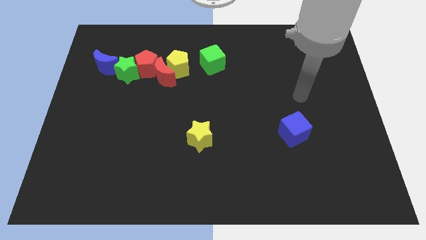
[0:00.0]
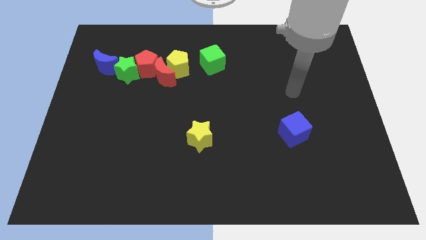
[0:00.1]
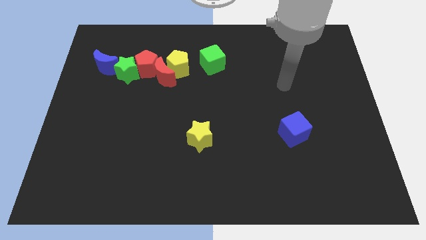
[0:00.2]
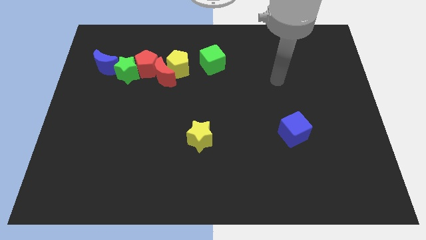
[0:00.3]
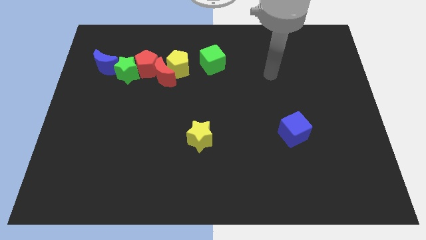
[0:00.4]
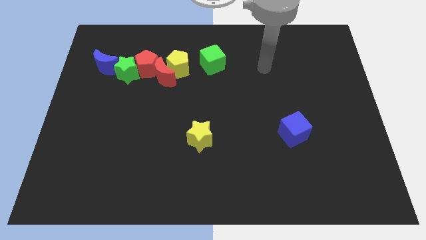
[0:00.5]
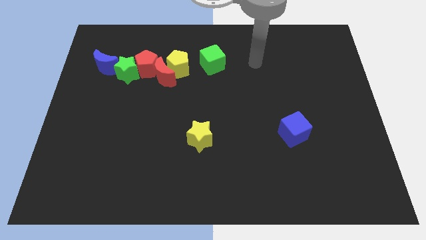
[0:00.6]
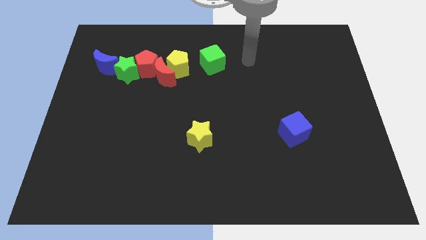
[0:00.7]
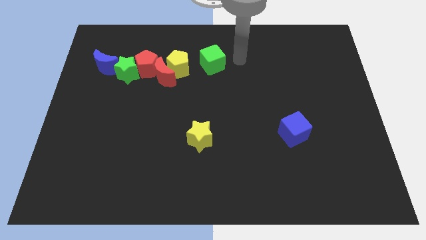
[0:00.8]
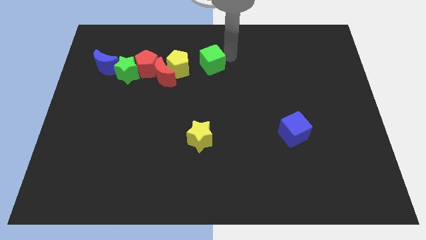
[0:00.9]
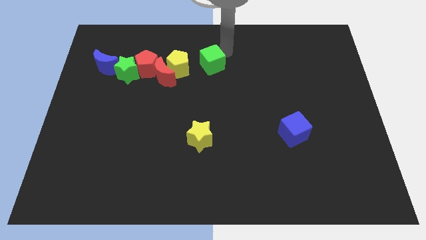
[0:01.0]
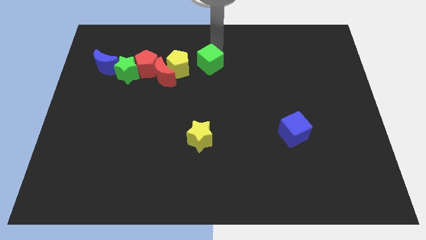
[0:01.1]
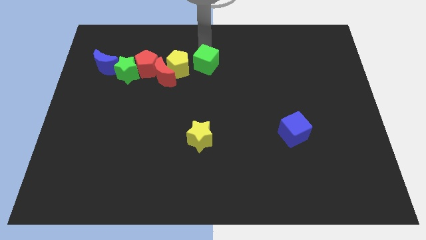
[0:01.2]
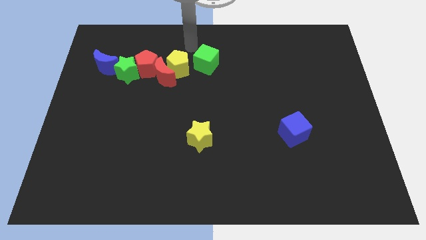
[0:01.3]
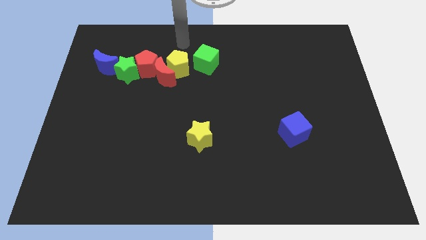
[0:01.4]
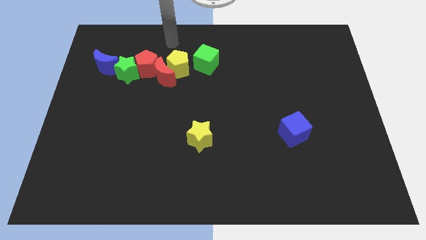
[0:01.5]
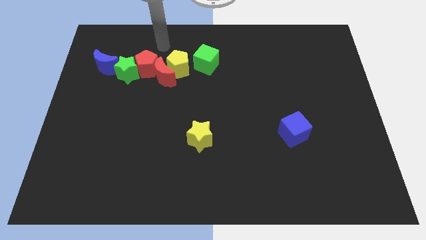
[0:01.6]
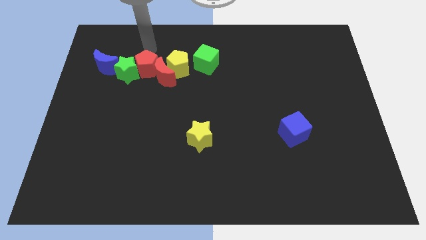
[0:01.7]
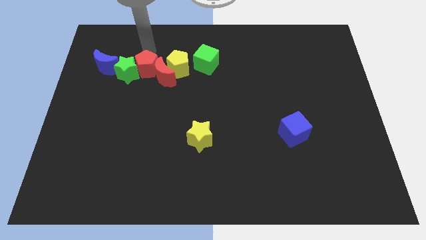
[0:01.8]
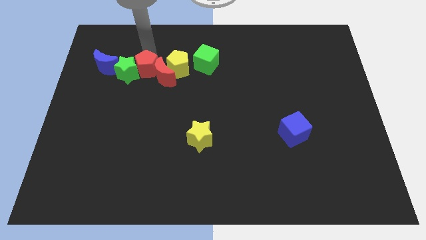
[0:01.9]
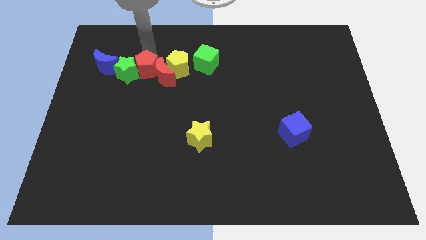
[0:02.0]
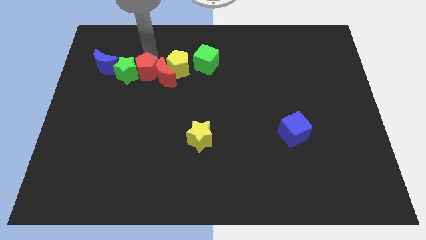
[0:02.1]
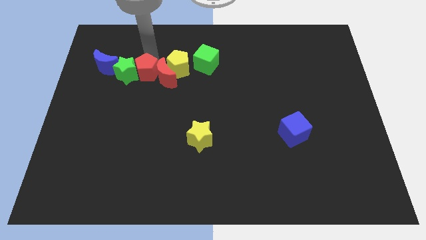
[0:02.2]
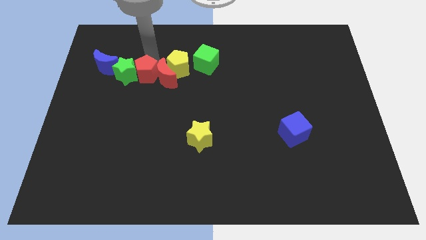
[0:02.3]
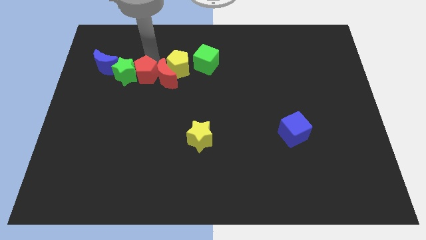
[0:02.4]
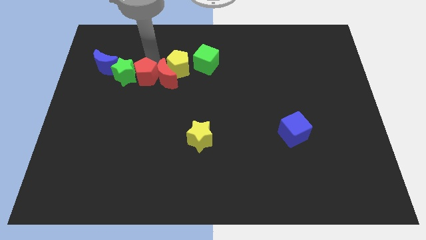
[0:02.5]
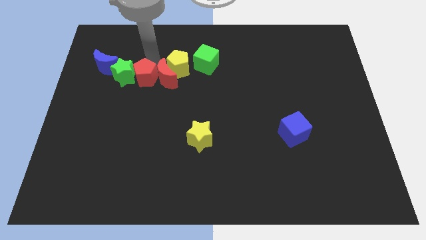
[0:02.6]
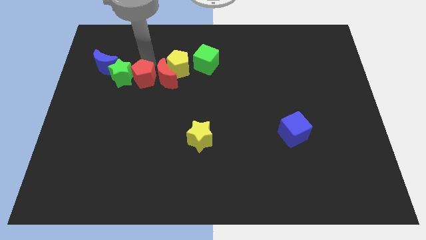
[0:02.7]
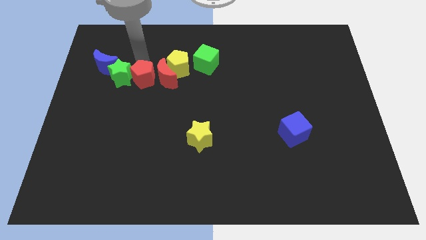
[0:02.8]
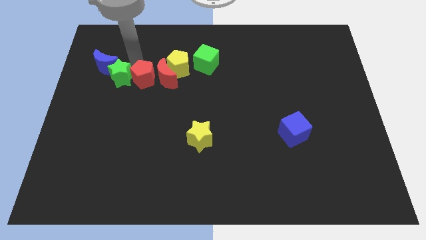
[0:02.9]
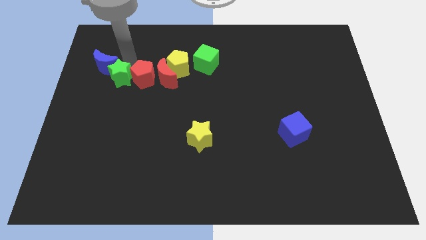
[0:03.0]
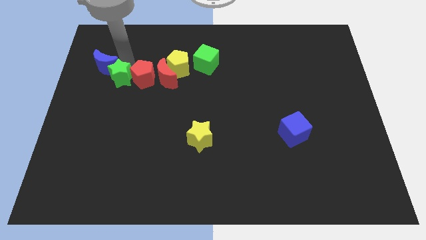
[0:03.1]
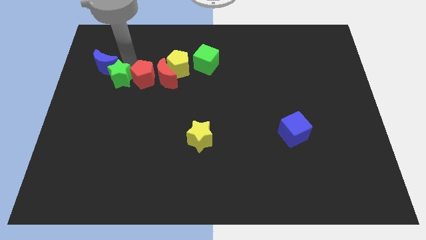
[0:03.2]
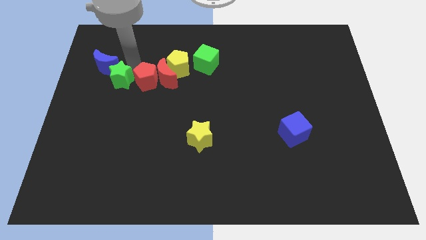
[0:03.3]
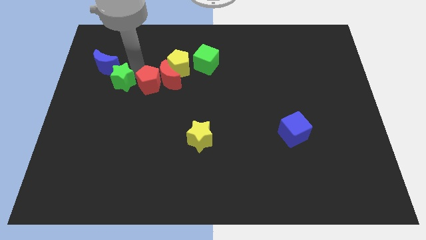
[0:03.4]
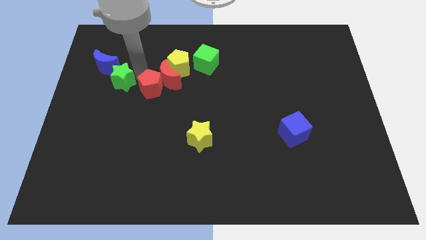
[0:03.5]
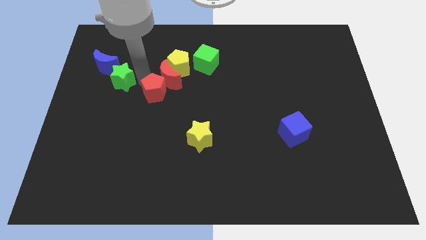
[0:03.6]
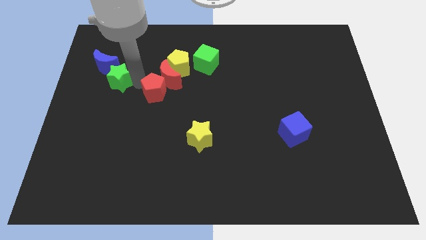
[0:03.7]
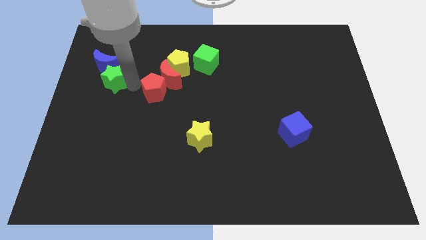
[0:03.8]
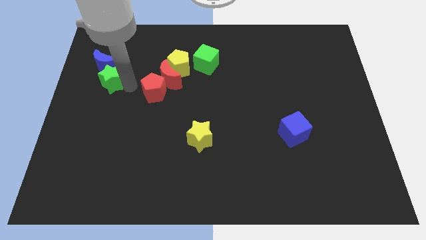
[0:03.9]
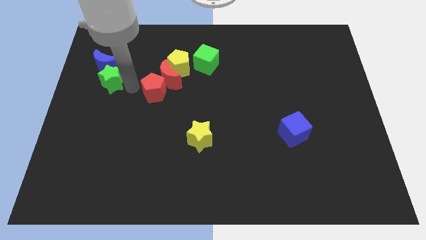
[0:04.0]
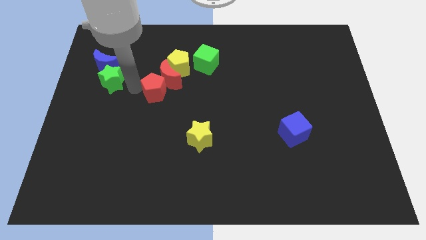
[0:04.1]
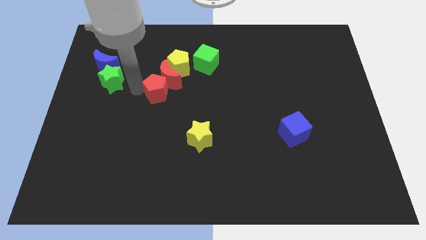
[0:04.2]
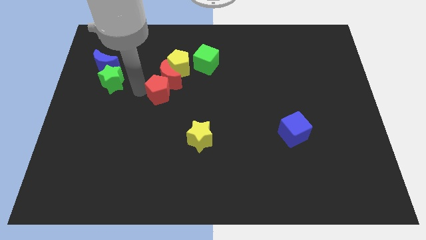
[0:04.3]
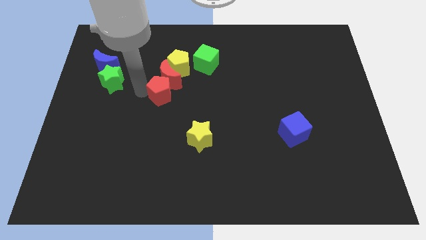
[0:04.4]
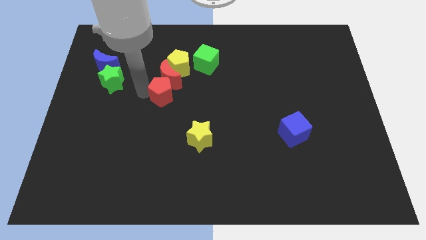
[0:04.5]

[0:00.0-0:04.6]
push the red pentagon to the center

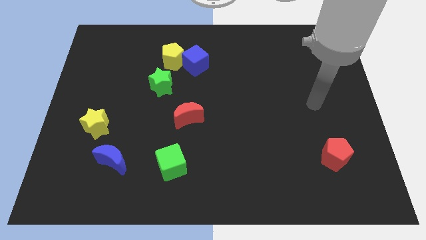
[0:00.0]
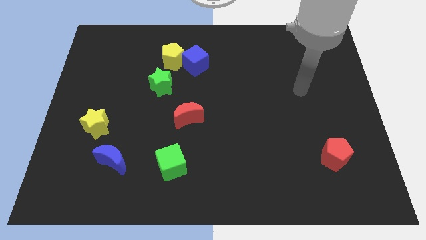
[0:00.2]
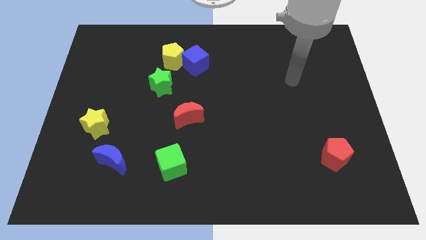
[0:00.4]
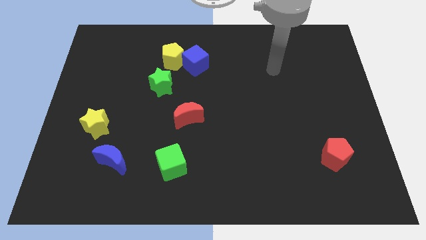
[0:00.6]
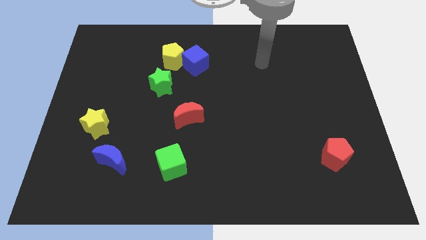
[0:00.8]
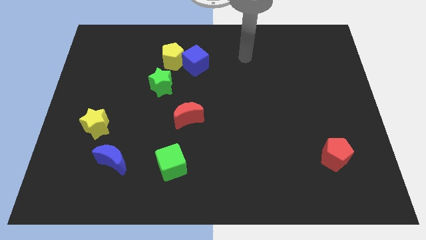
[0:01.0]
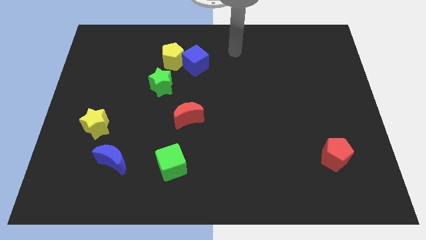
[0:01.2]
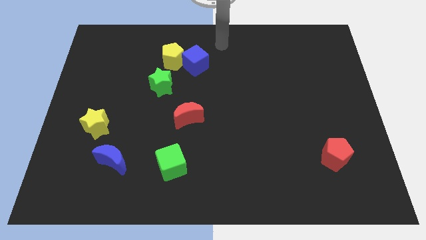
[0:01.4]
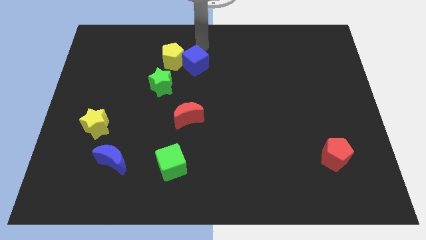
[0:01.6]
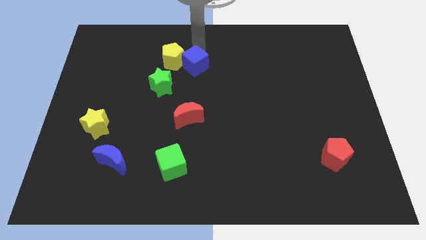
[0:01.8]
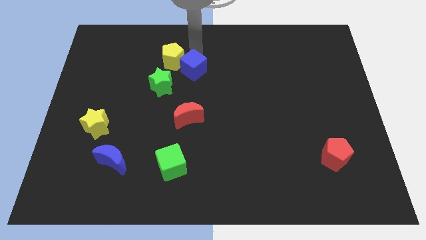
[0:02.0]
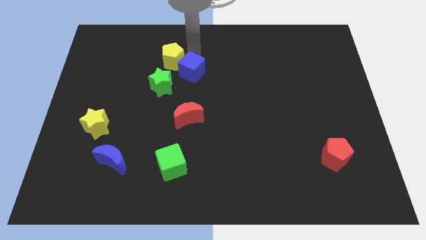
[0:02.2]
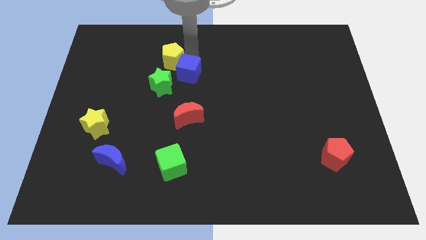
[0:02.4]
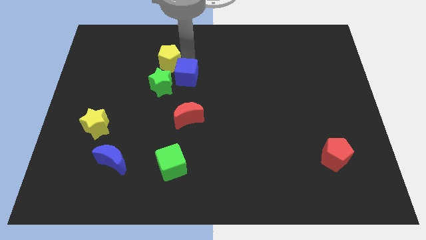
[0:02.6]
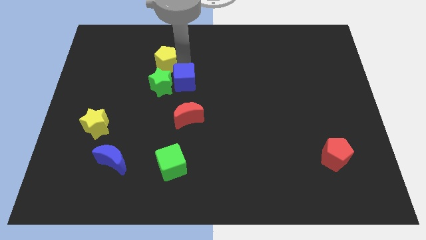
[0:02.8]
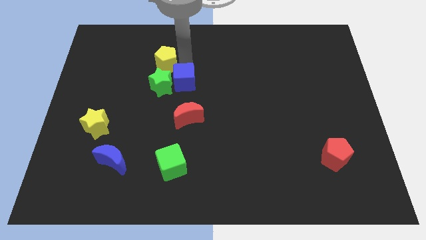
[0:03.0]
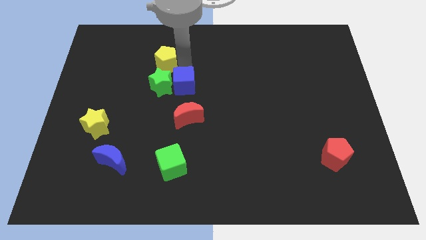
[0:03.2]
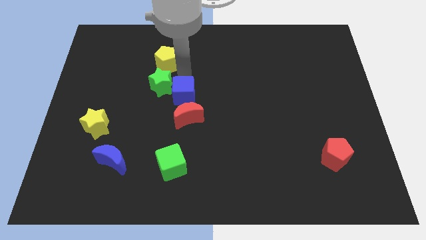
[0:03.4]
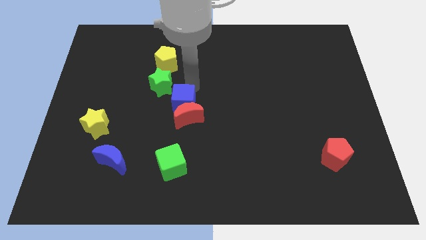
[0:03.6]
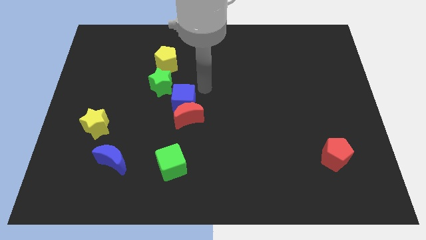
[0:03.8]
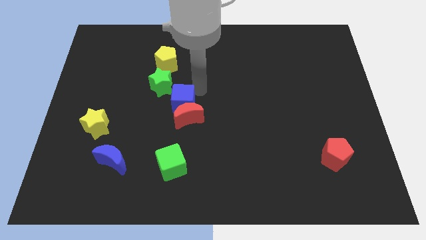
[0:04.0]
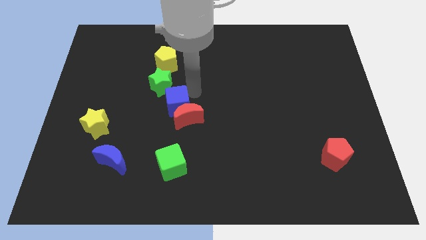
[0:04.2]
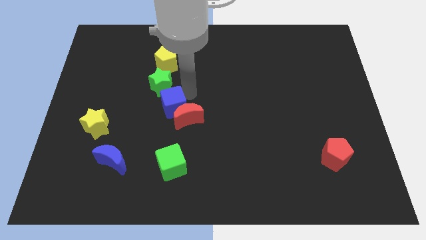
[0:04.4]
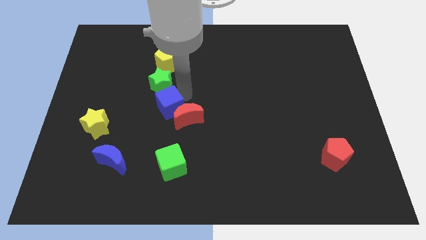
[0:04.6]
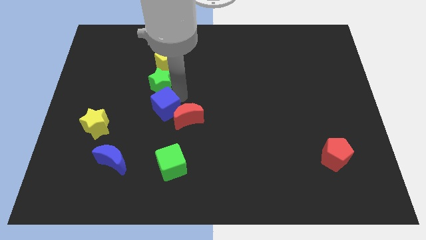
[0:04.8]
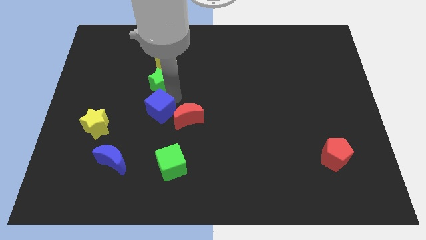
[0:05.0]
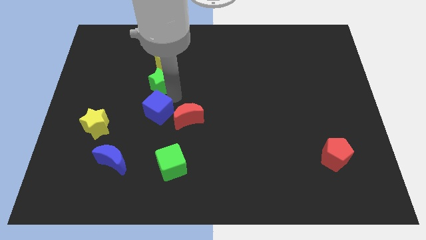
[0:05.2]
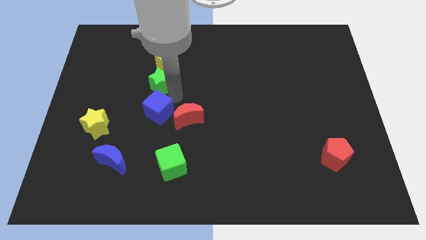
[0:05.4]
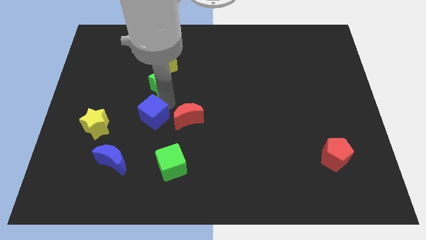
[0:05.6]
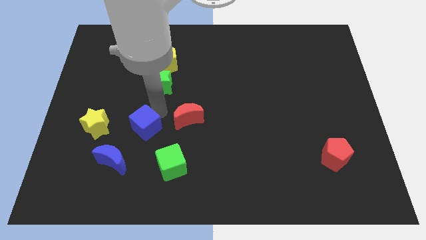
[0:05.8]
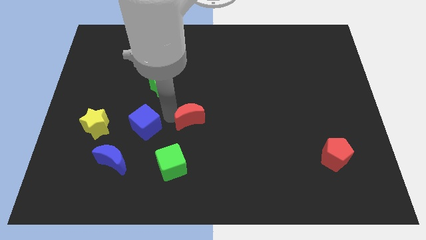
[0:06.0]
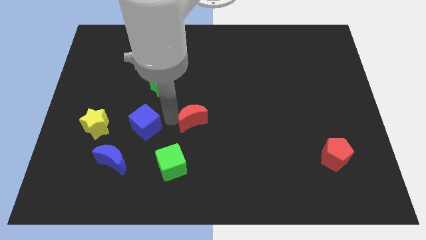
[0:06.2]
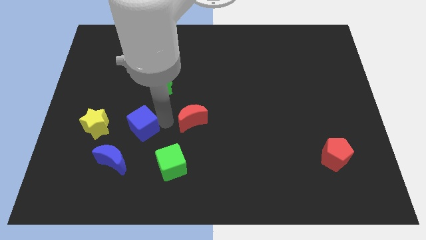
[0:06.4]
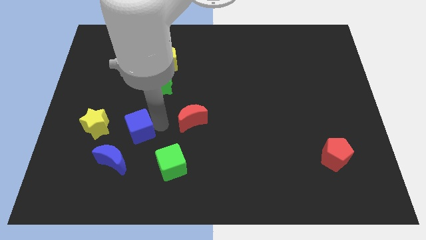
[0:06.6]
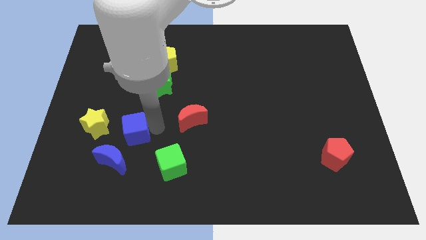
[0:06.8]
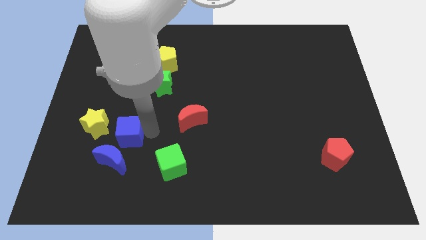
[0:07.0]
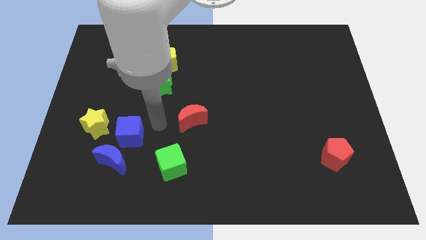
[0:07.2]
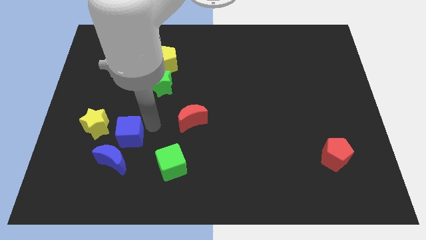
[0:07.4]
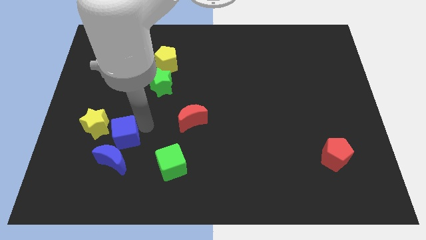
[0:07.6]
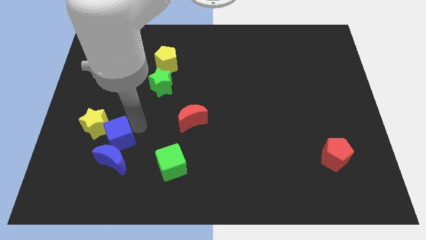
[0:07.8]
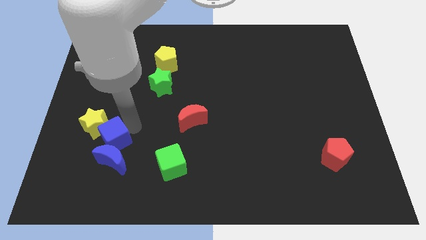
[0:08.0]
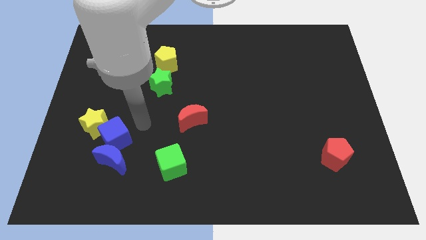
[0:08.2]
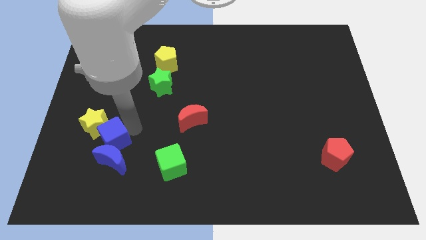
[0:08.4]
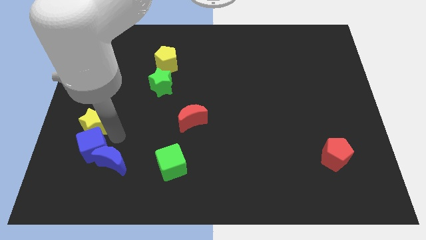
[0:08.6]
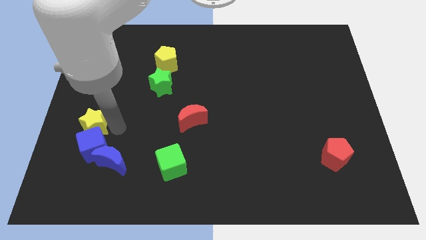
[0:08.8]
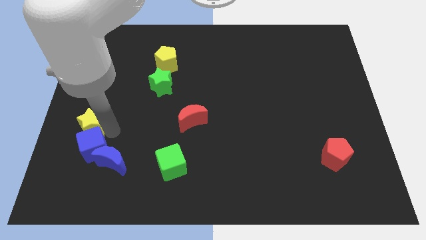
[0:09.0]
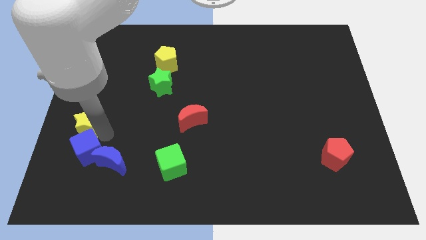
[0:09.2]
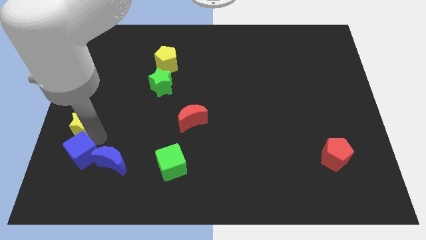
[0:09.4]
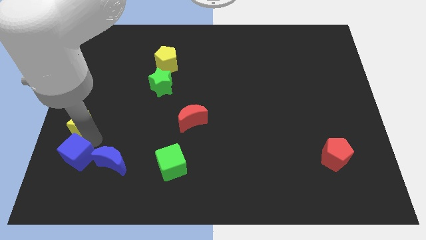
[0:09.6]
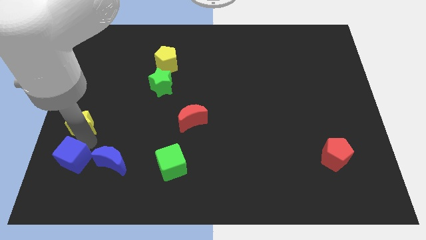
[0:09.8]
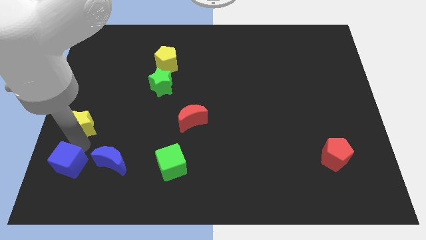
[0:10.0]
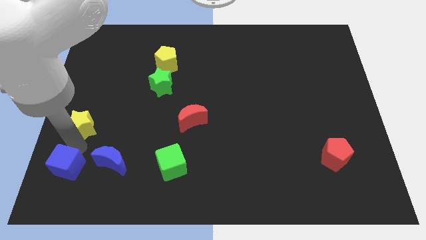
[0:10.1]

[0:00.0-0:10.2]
put the blue cube to the lower left corner
